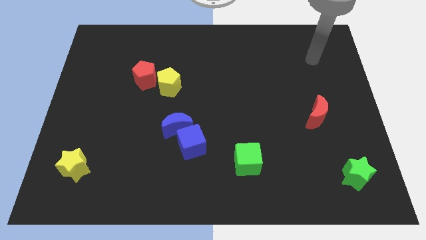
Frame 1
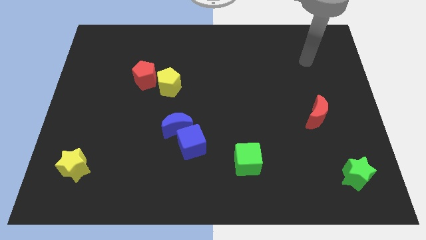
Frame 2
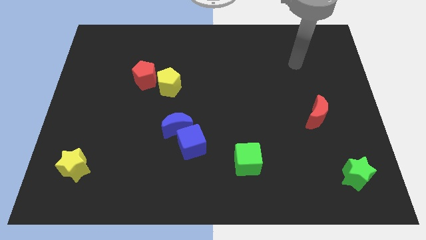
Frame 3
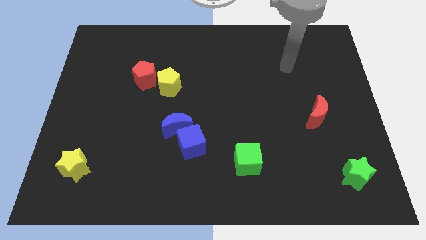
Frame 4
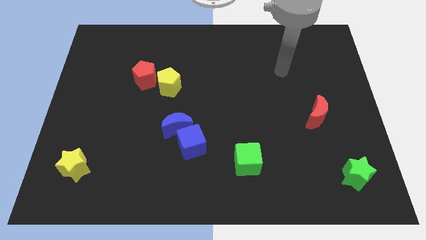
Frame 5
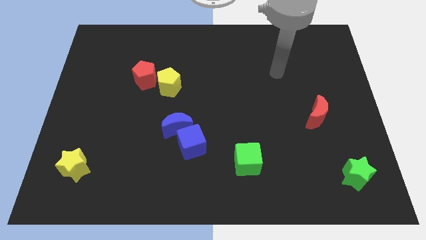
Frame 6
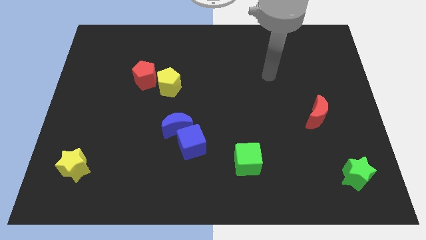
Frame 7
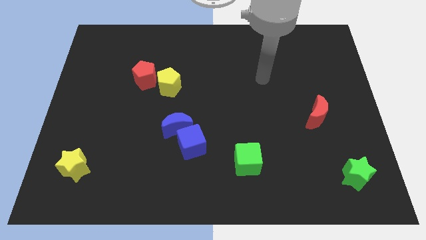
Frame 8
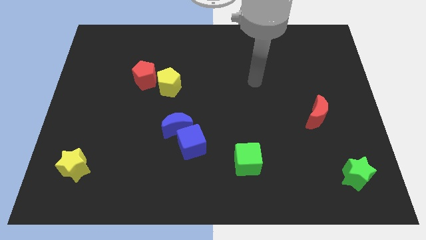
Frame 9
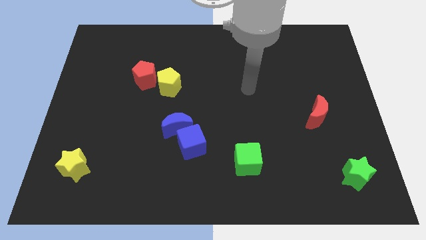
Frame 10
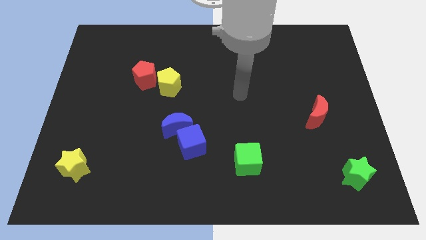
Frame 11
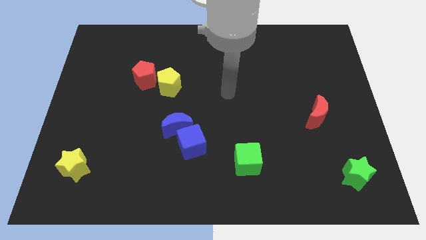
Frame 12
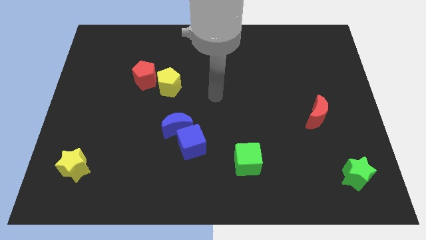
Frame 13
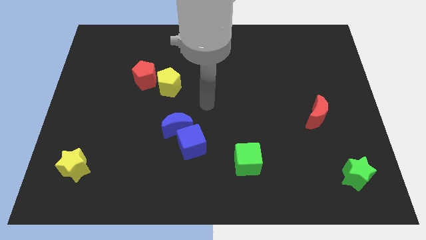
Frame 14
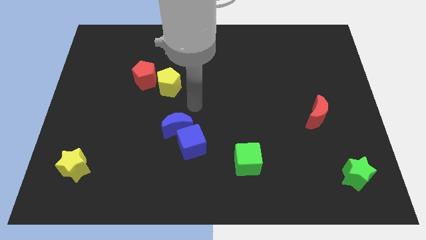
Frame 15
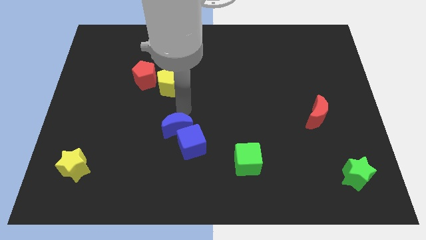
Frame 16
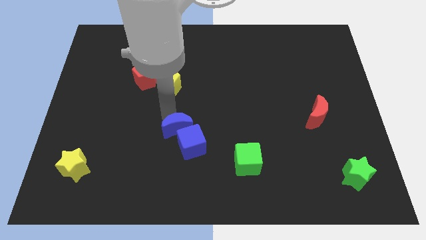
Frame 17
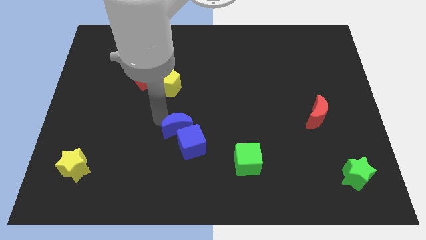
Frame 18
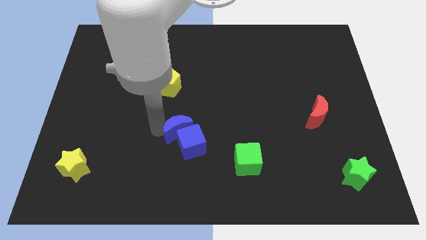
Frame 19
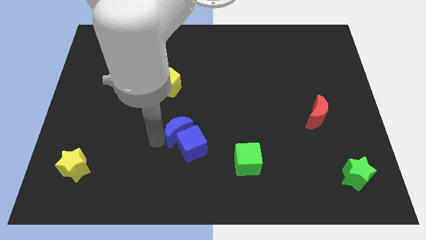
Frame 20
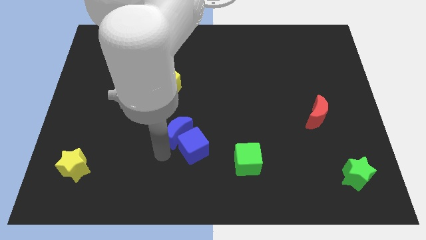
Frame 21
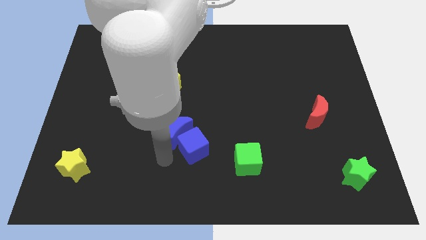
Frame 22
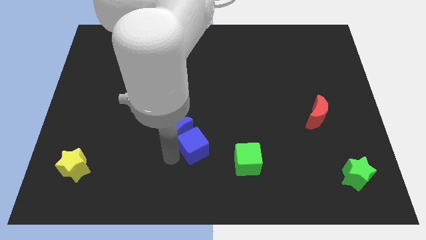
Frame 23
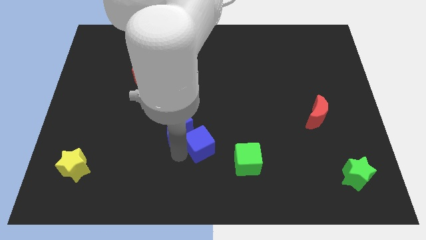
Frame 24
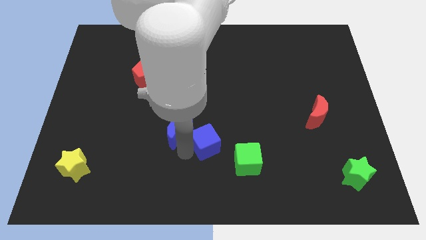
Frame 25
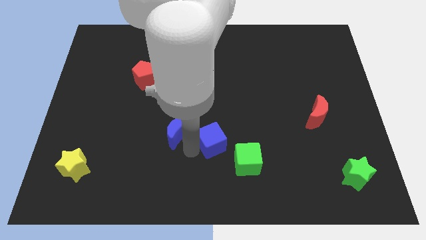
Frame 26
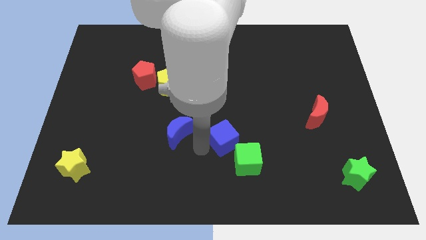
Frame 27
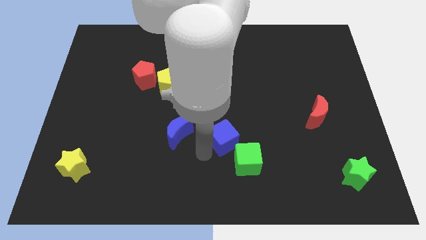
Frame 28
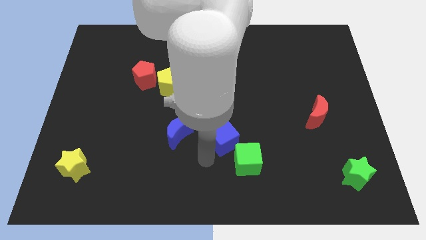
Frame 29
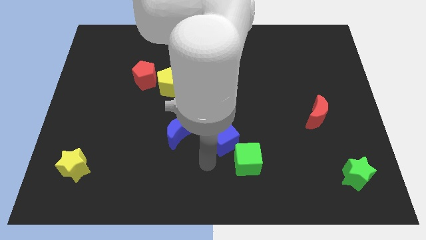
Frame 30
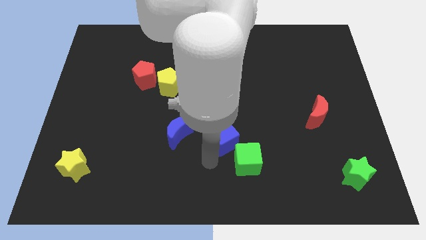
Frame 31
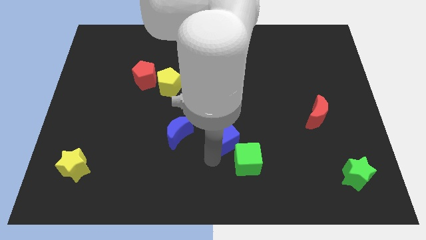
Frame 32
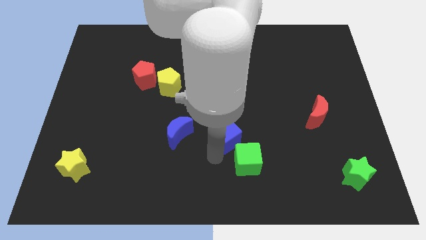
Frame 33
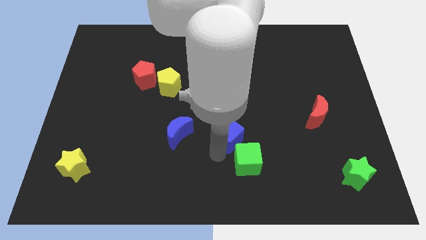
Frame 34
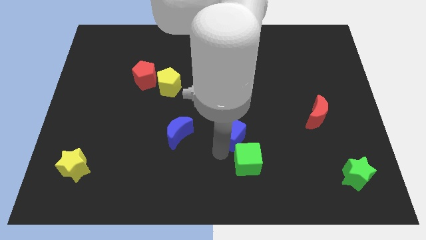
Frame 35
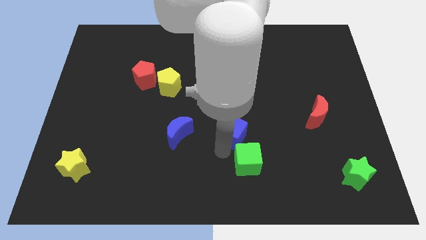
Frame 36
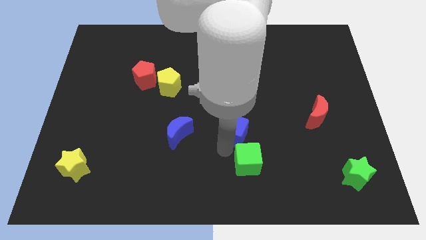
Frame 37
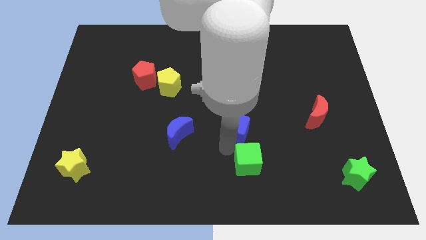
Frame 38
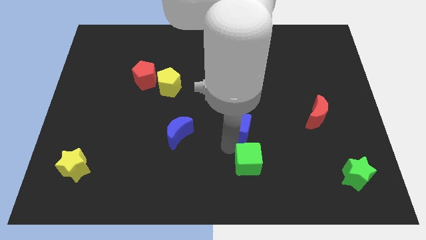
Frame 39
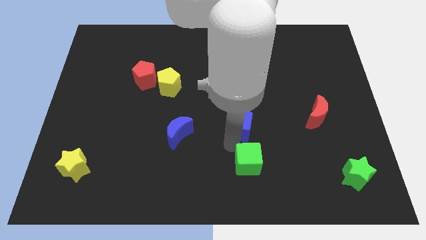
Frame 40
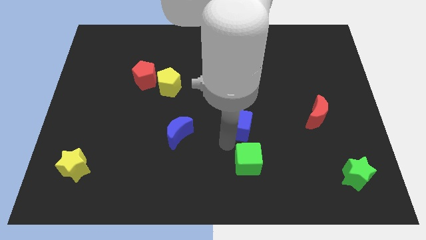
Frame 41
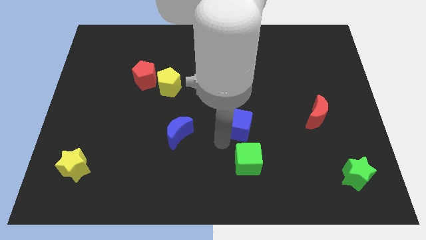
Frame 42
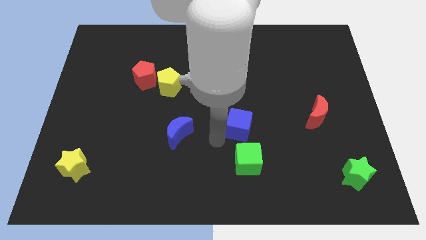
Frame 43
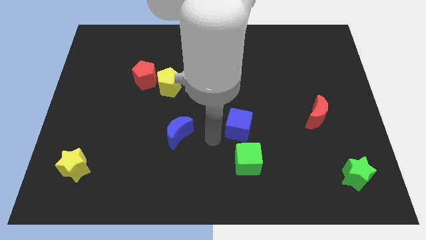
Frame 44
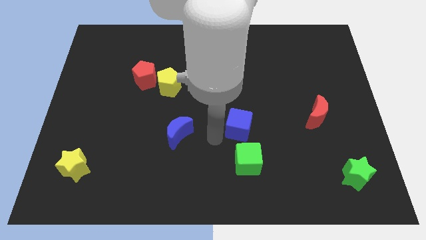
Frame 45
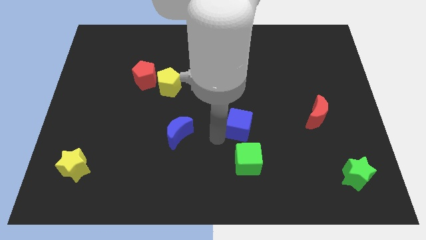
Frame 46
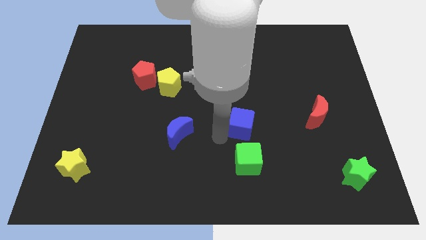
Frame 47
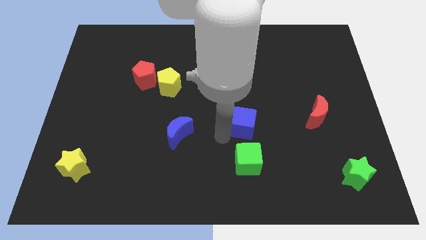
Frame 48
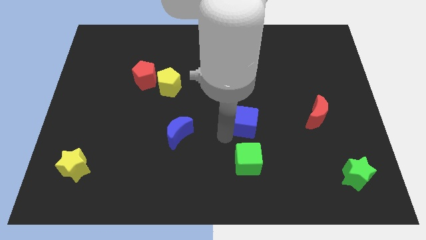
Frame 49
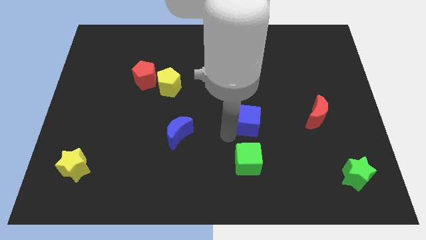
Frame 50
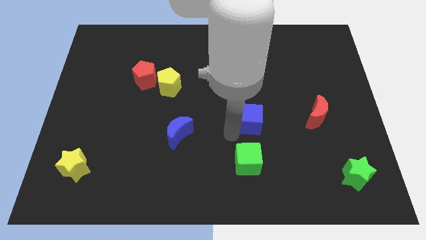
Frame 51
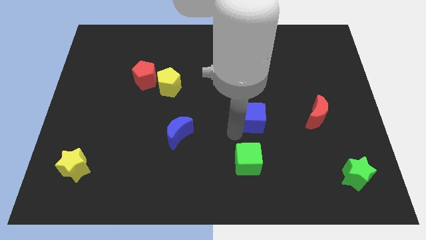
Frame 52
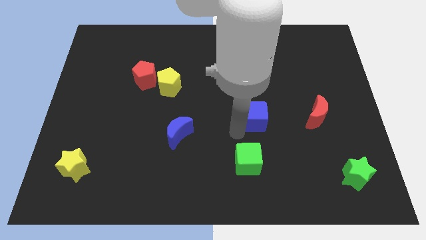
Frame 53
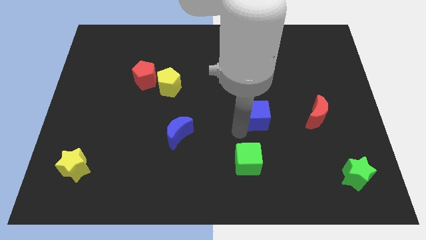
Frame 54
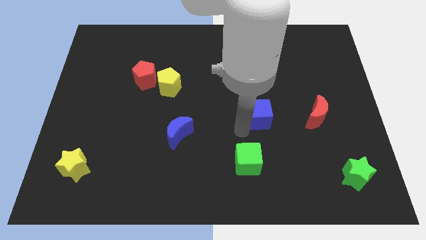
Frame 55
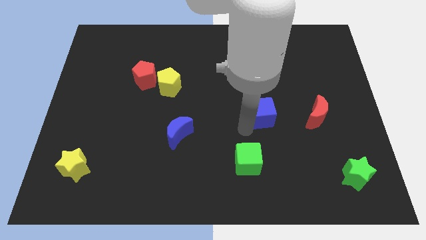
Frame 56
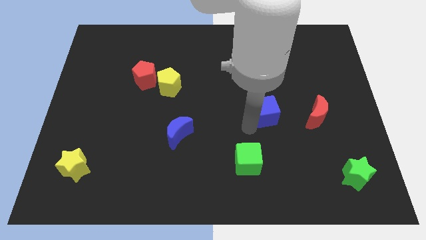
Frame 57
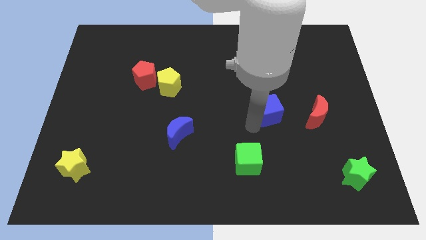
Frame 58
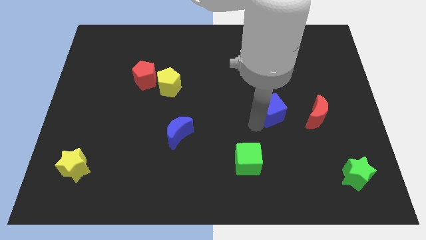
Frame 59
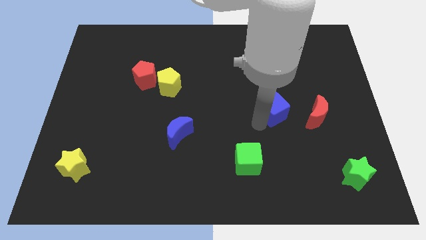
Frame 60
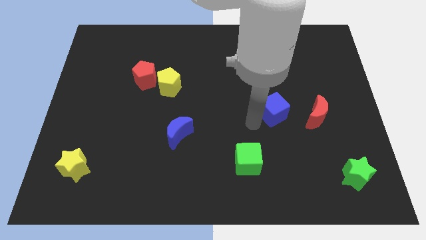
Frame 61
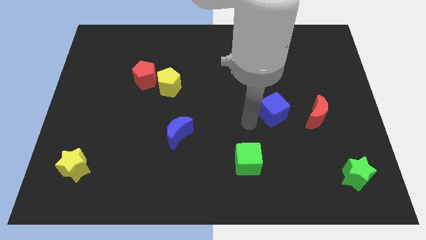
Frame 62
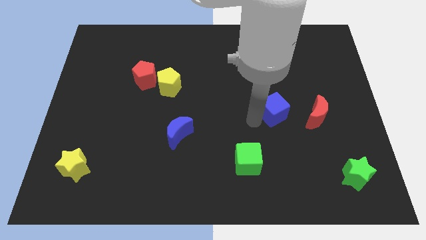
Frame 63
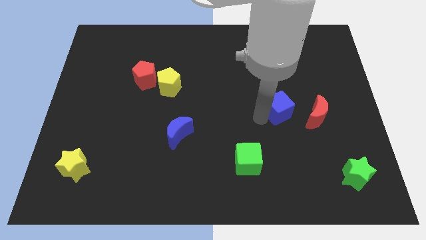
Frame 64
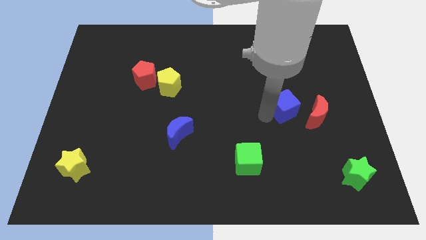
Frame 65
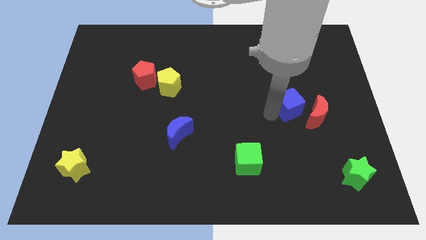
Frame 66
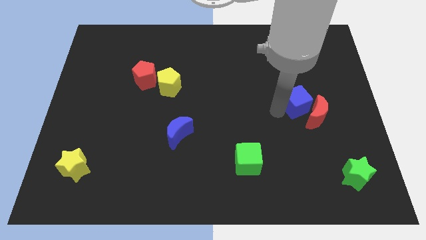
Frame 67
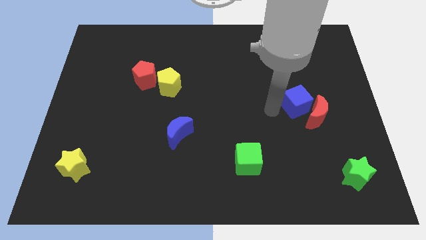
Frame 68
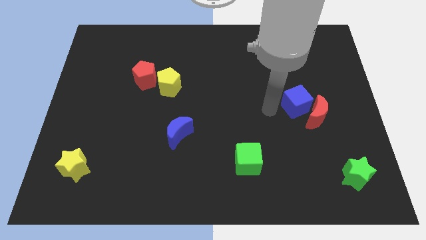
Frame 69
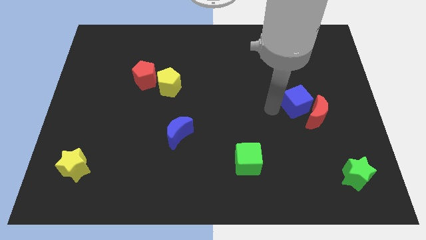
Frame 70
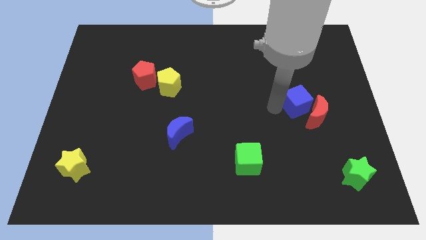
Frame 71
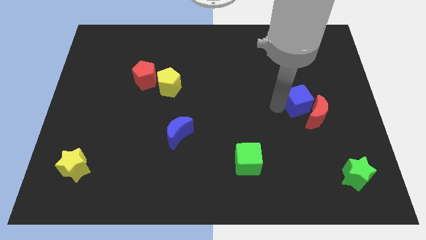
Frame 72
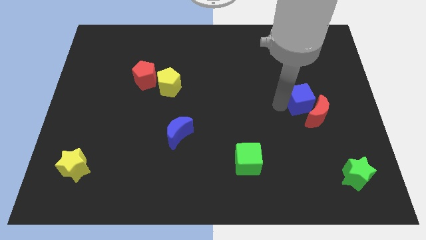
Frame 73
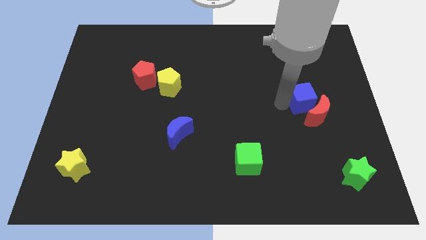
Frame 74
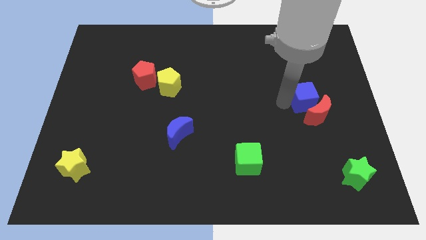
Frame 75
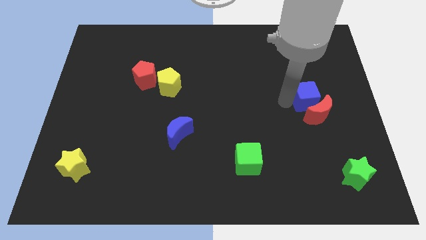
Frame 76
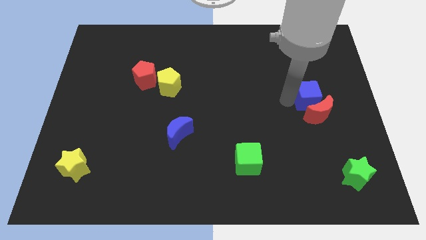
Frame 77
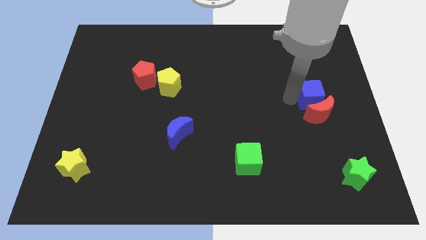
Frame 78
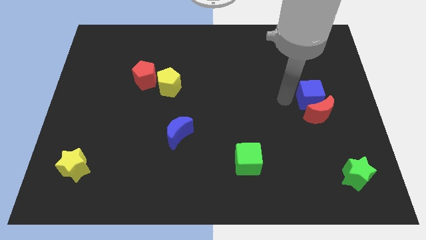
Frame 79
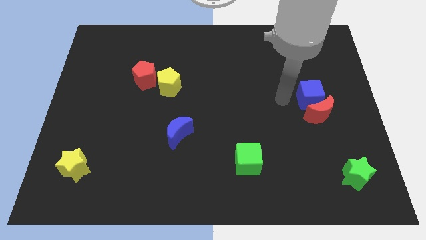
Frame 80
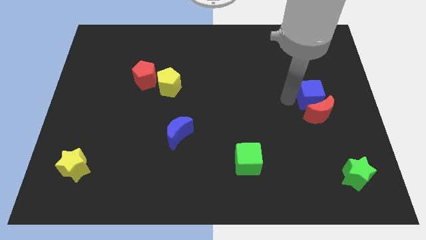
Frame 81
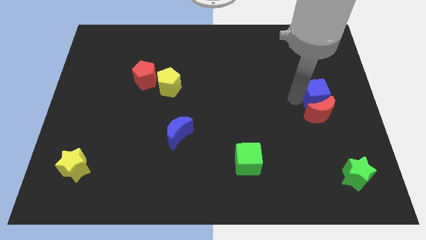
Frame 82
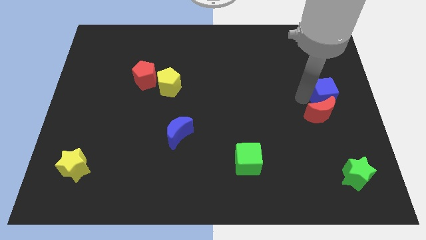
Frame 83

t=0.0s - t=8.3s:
move the blue cube to the right side
